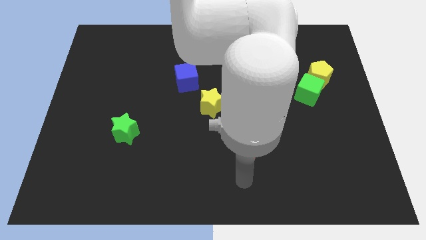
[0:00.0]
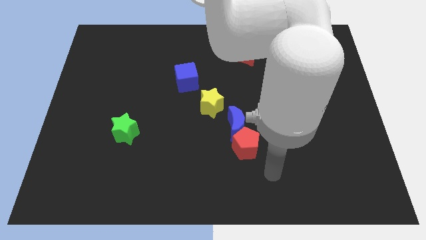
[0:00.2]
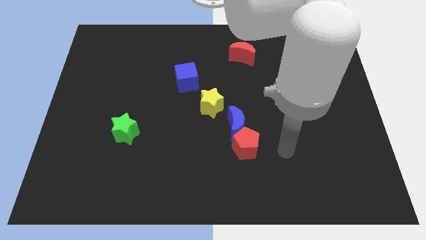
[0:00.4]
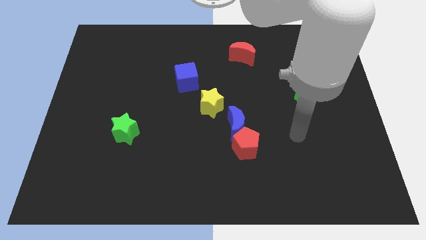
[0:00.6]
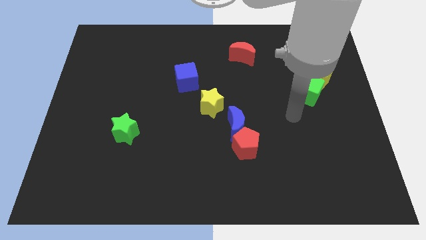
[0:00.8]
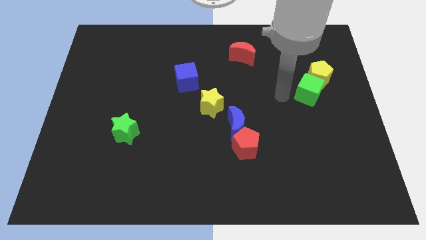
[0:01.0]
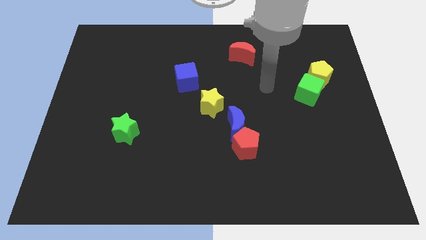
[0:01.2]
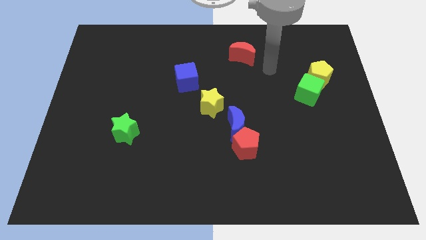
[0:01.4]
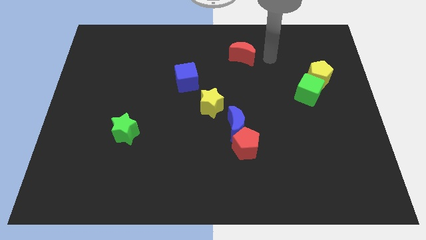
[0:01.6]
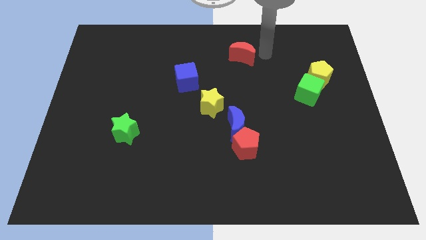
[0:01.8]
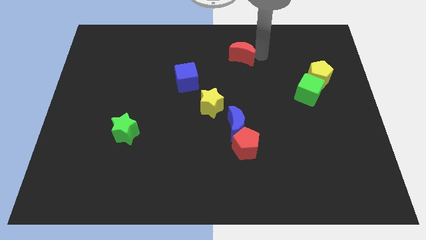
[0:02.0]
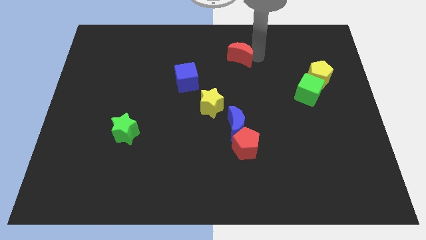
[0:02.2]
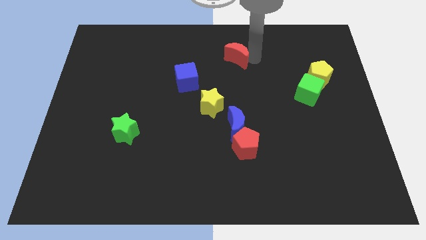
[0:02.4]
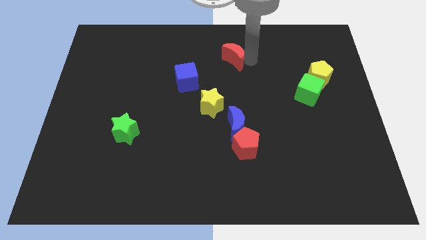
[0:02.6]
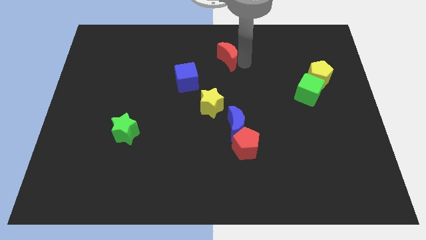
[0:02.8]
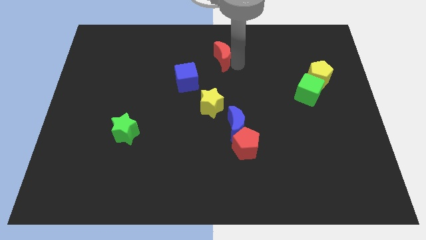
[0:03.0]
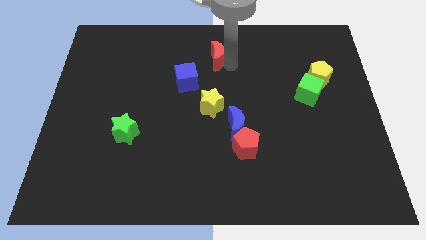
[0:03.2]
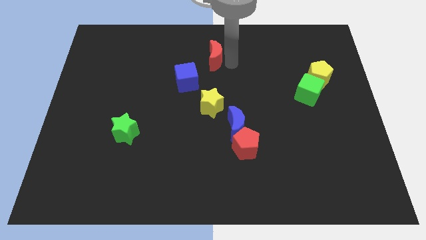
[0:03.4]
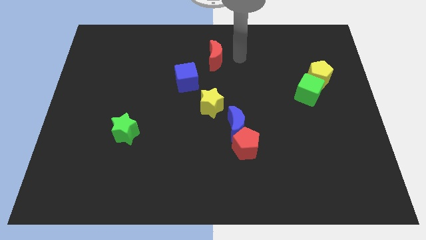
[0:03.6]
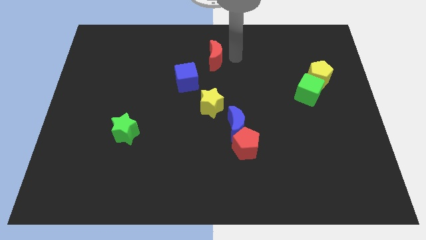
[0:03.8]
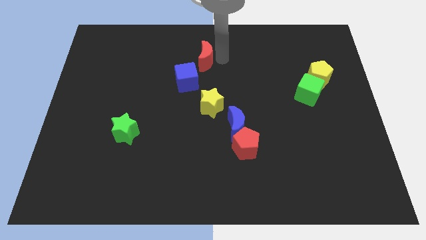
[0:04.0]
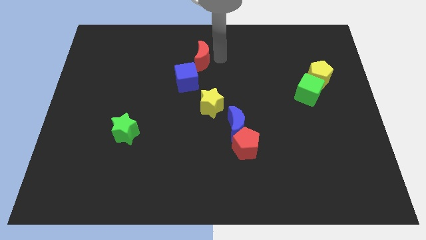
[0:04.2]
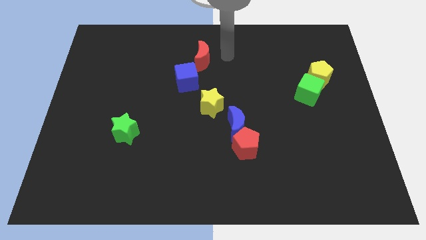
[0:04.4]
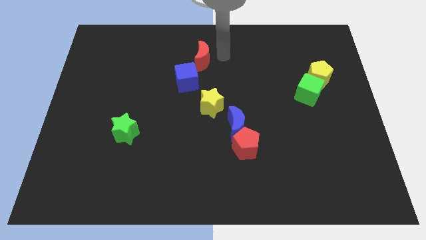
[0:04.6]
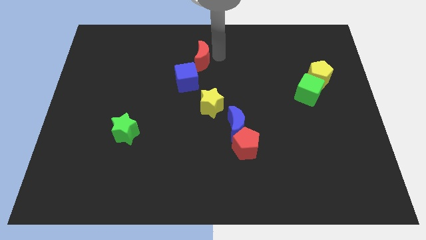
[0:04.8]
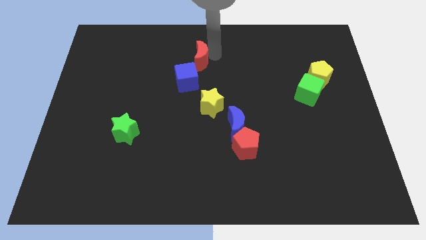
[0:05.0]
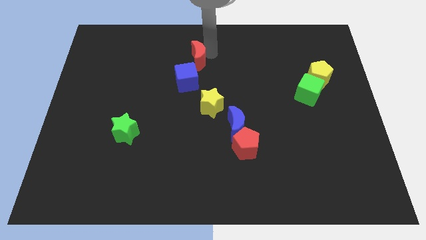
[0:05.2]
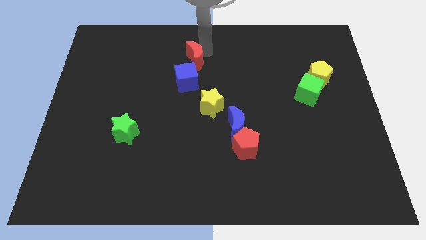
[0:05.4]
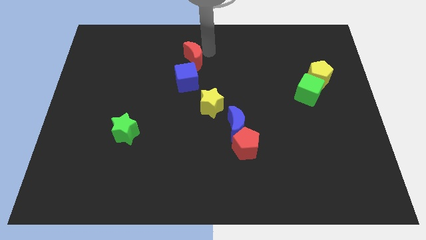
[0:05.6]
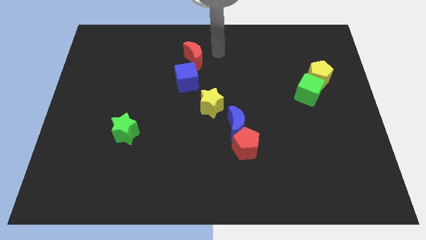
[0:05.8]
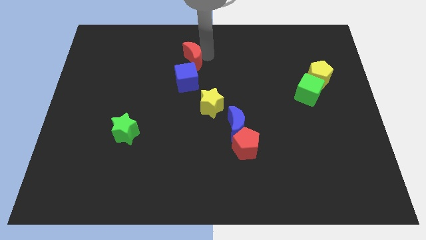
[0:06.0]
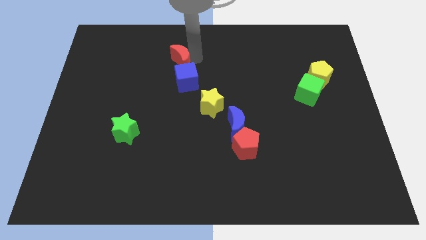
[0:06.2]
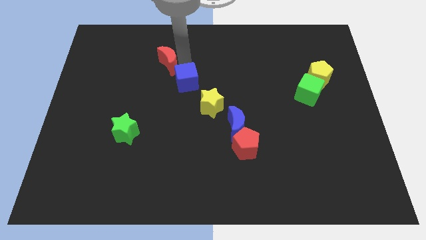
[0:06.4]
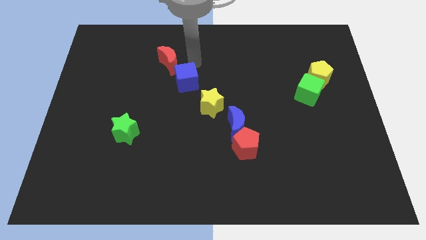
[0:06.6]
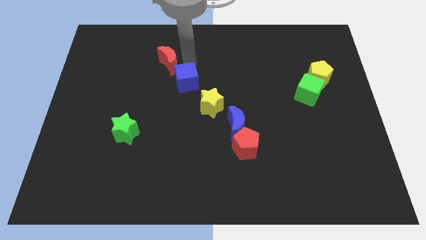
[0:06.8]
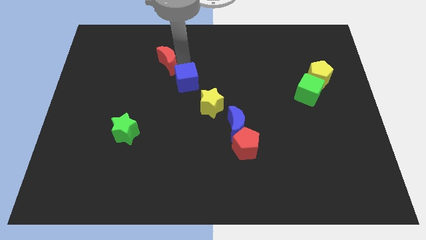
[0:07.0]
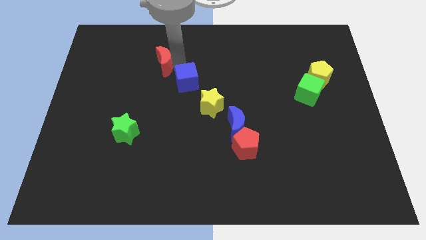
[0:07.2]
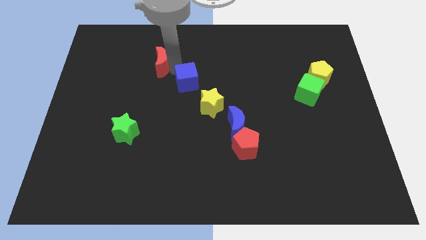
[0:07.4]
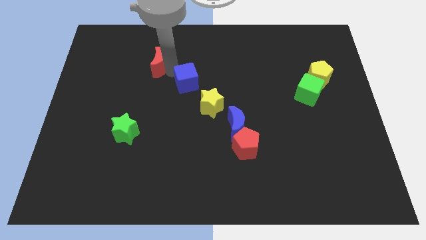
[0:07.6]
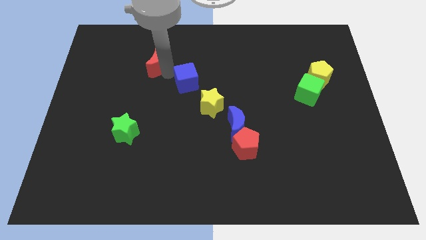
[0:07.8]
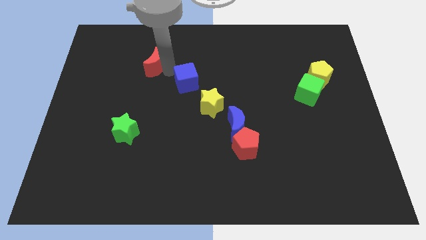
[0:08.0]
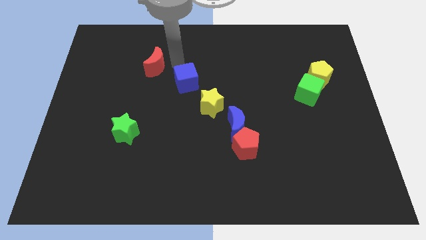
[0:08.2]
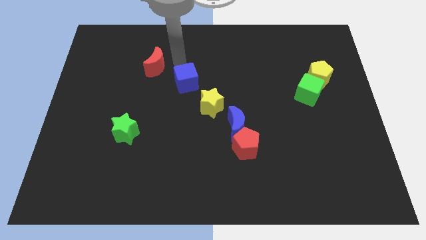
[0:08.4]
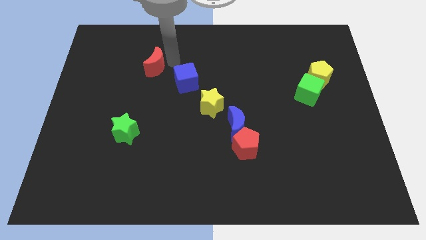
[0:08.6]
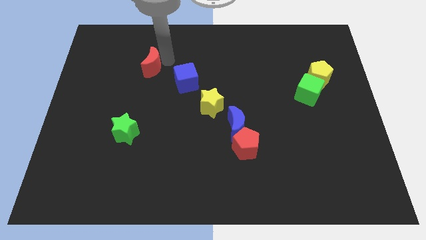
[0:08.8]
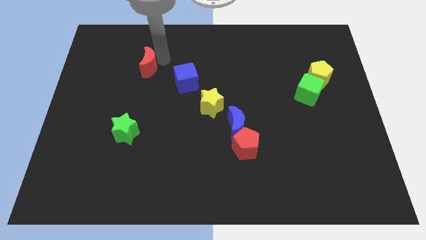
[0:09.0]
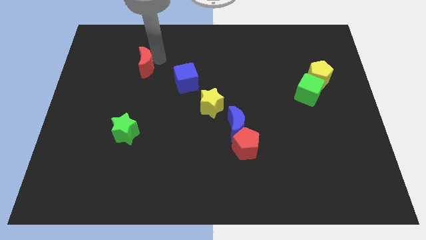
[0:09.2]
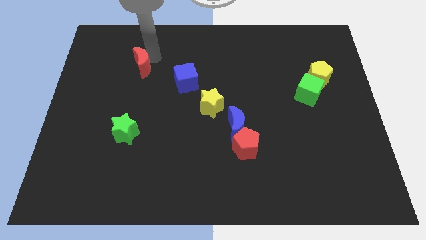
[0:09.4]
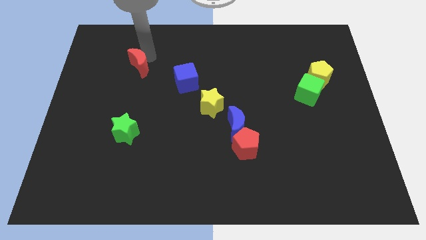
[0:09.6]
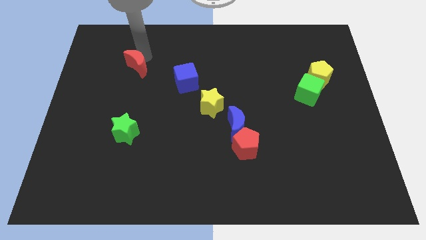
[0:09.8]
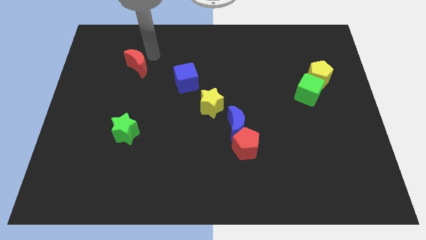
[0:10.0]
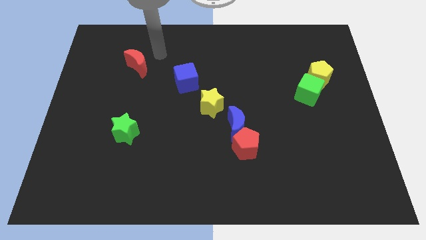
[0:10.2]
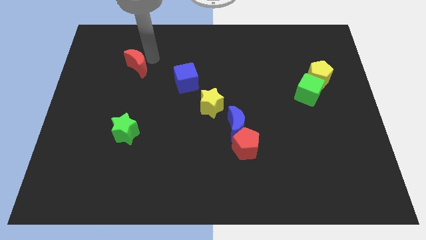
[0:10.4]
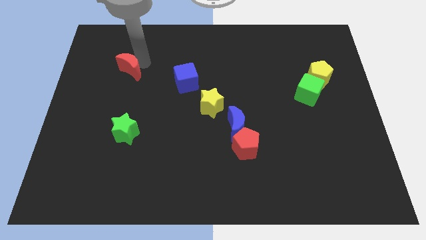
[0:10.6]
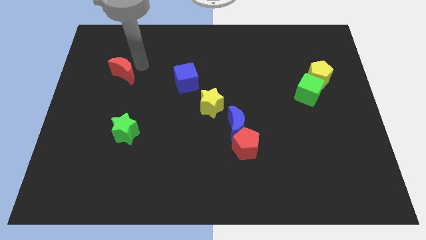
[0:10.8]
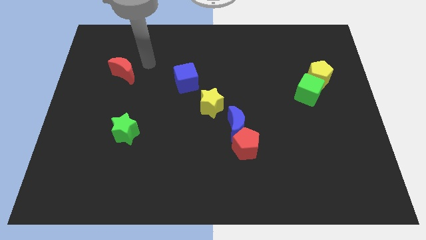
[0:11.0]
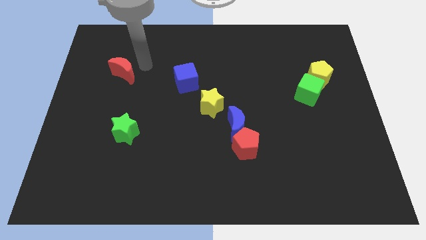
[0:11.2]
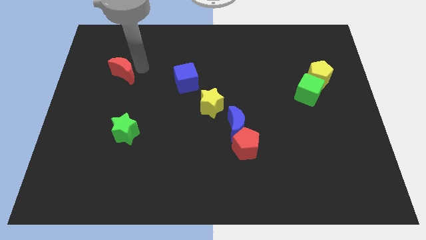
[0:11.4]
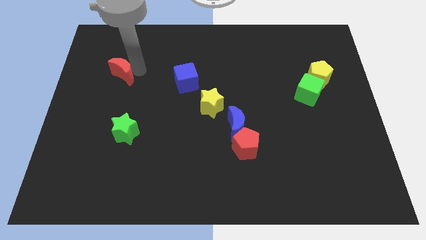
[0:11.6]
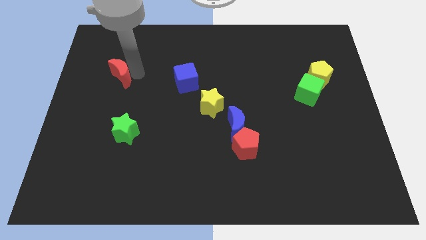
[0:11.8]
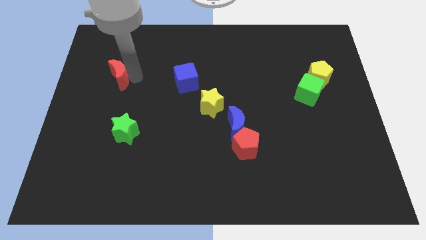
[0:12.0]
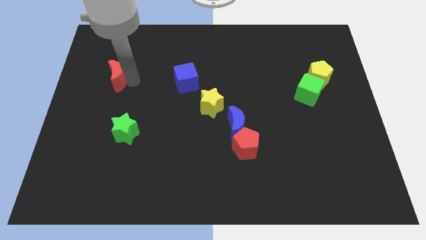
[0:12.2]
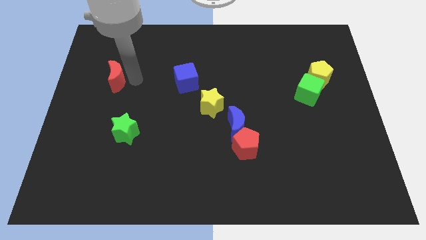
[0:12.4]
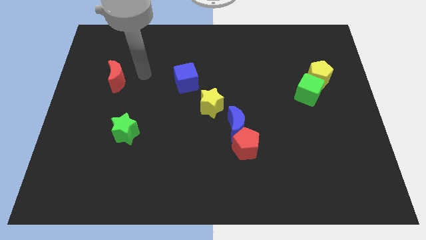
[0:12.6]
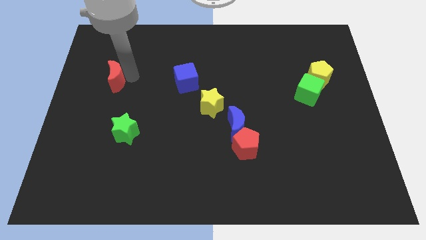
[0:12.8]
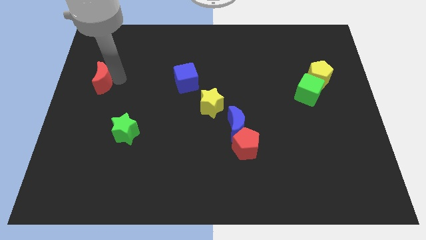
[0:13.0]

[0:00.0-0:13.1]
push the red moon to the center left
